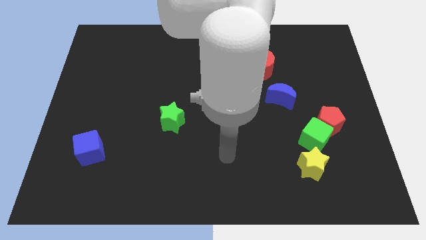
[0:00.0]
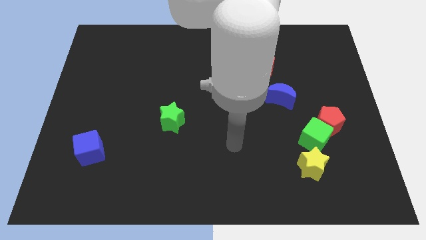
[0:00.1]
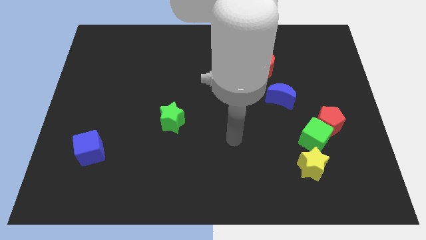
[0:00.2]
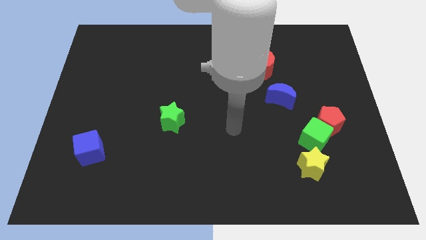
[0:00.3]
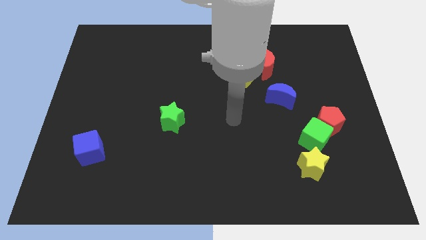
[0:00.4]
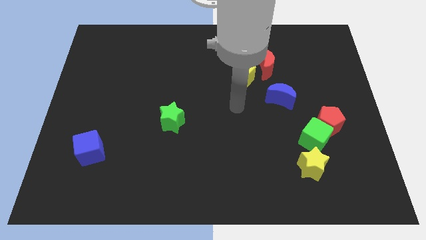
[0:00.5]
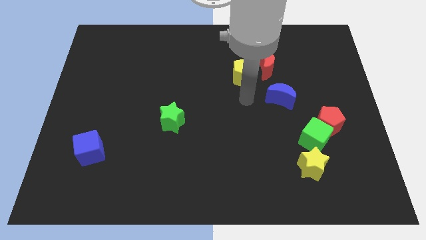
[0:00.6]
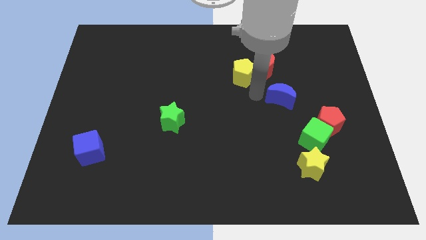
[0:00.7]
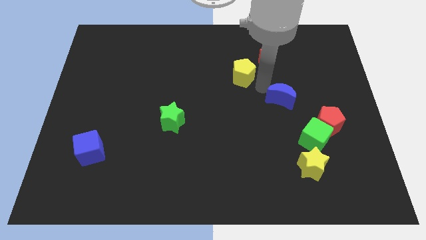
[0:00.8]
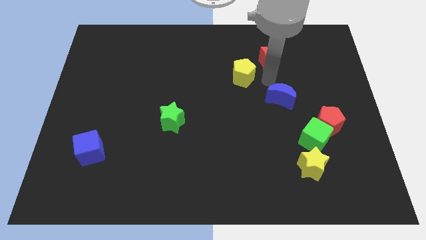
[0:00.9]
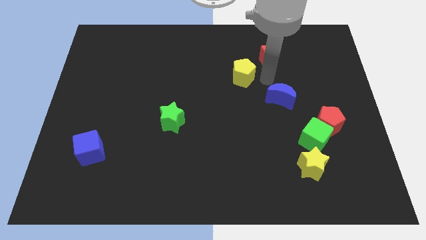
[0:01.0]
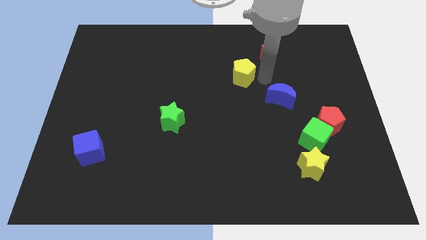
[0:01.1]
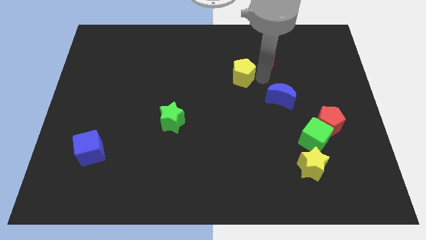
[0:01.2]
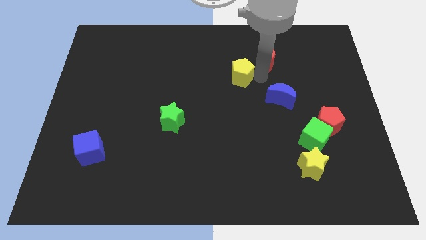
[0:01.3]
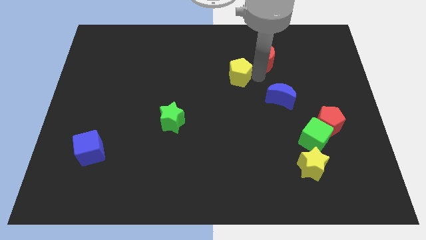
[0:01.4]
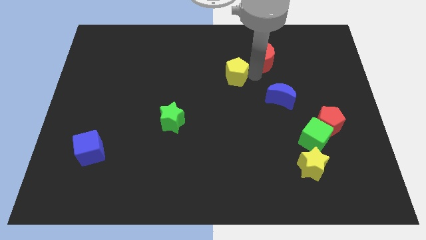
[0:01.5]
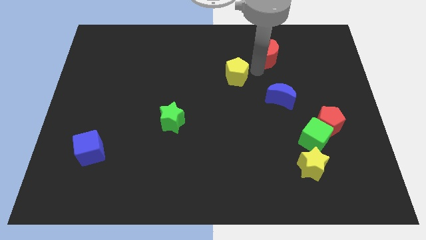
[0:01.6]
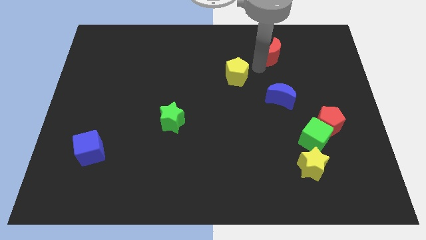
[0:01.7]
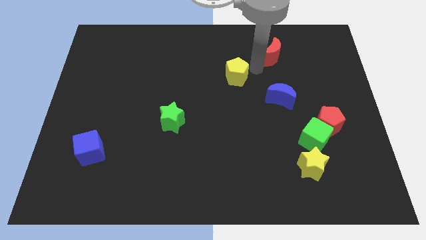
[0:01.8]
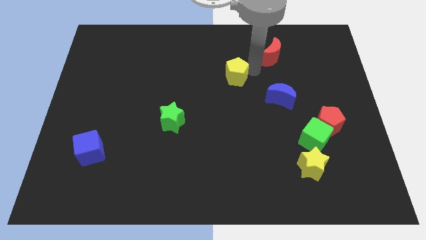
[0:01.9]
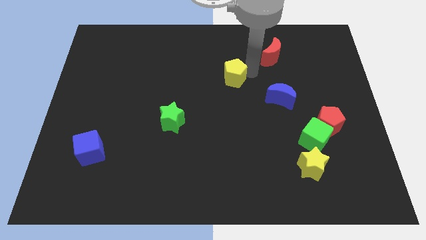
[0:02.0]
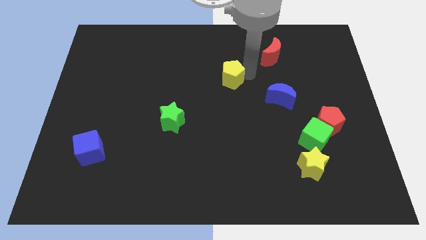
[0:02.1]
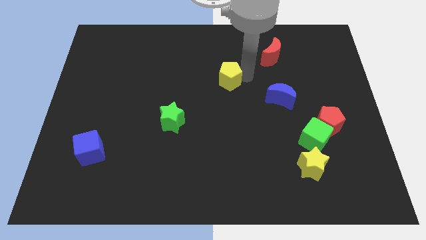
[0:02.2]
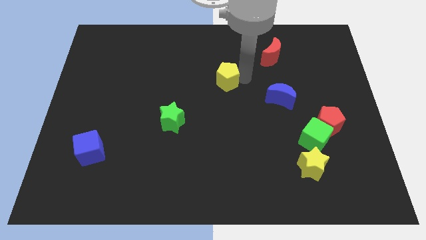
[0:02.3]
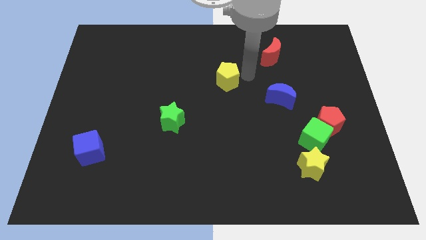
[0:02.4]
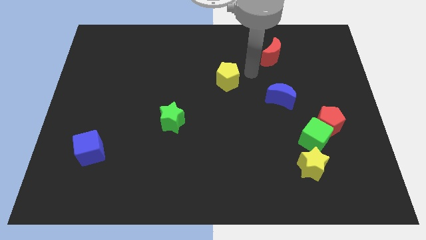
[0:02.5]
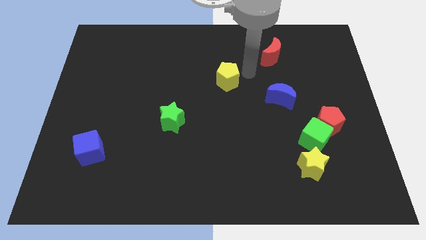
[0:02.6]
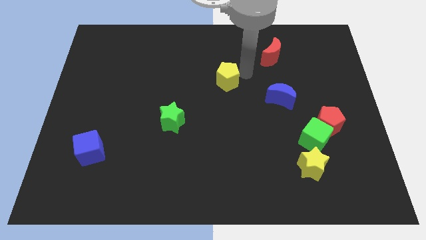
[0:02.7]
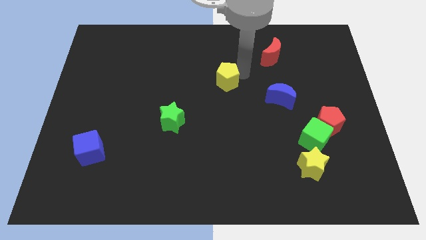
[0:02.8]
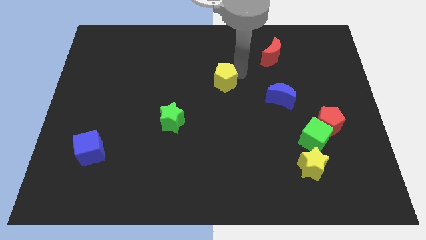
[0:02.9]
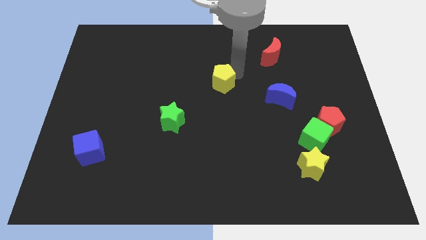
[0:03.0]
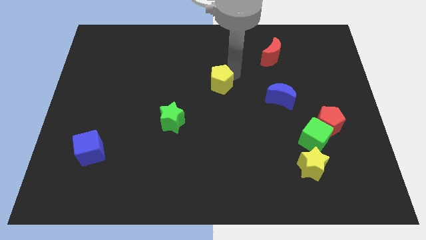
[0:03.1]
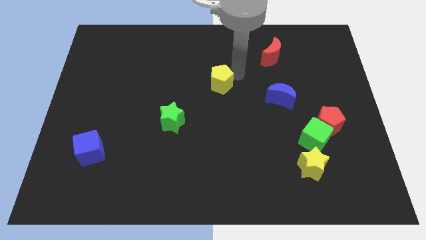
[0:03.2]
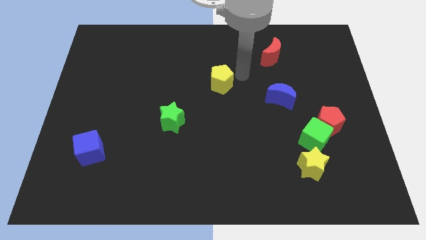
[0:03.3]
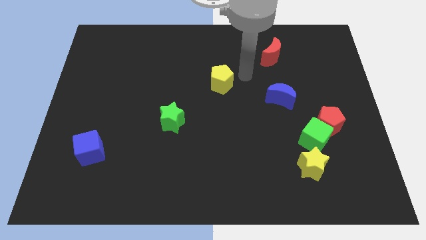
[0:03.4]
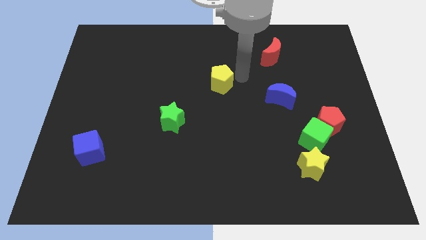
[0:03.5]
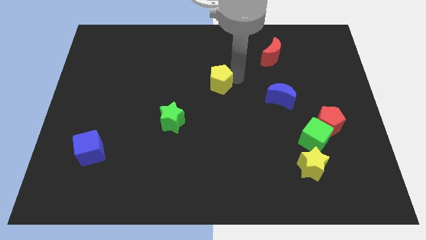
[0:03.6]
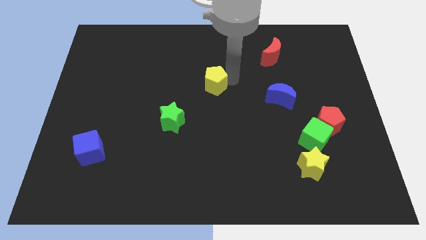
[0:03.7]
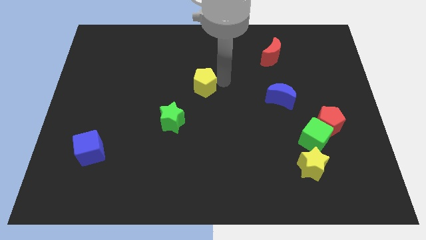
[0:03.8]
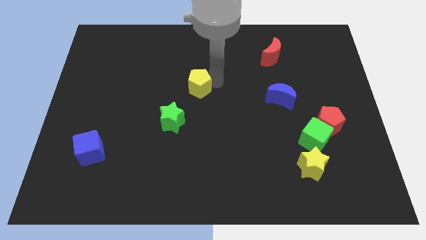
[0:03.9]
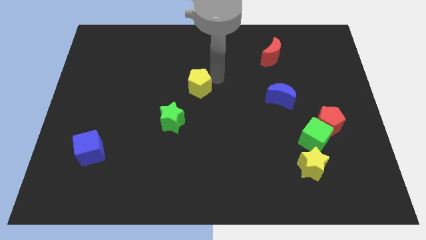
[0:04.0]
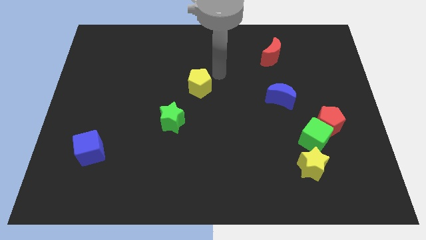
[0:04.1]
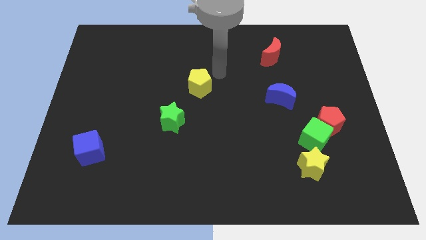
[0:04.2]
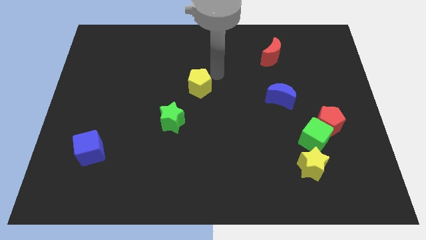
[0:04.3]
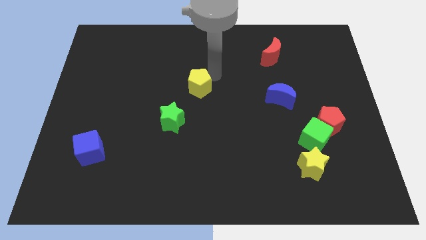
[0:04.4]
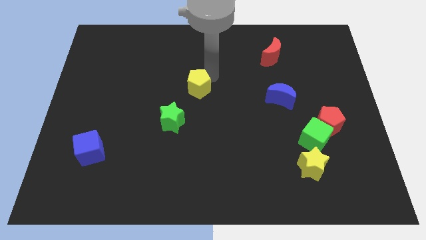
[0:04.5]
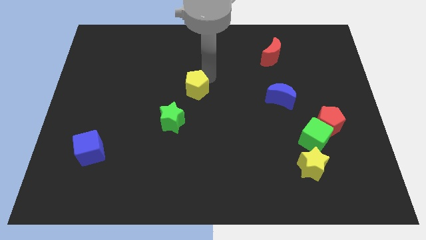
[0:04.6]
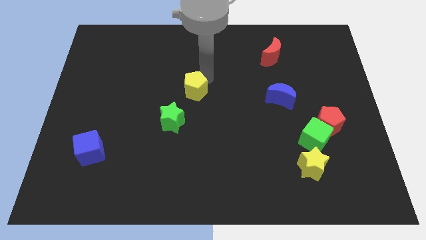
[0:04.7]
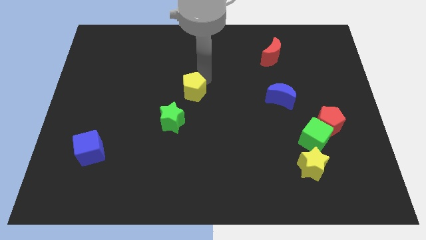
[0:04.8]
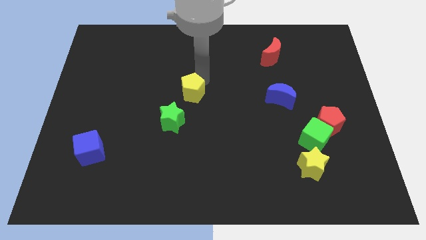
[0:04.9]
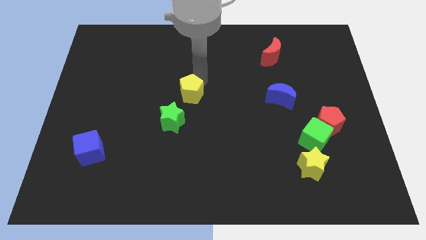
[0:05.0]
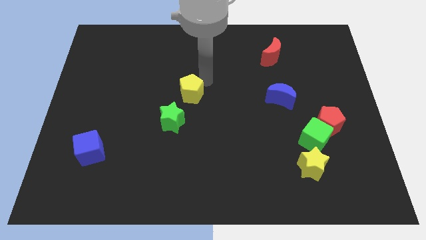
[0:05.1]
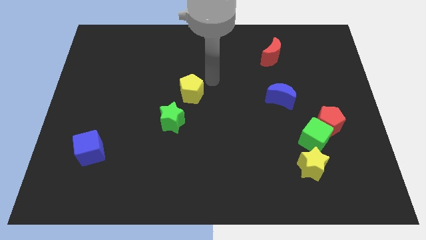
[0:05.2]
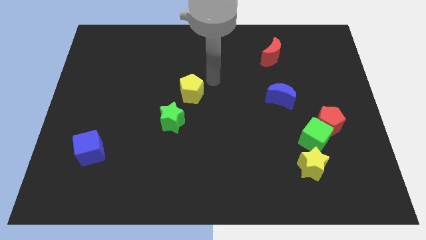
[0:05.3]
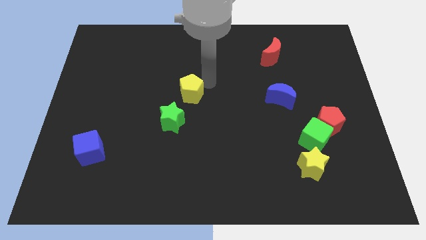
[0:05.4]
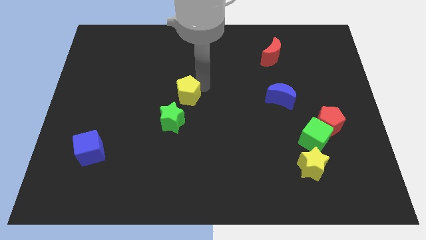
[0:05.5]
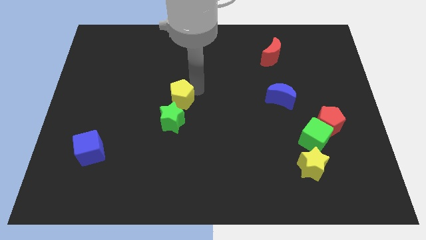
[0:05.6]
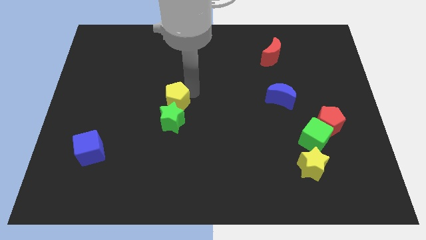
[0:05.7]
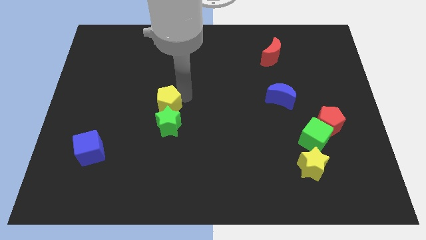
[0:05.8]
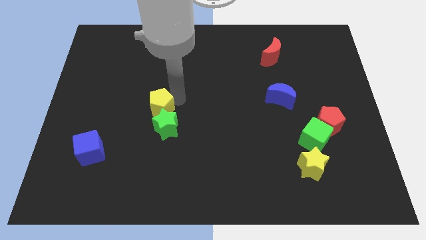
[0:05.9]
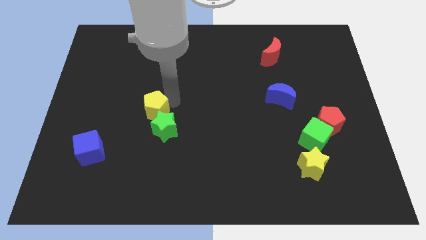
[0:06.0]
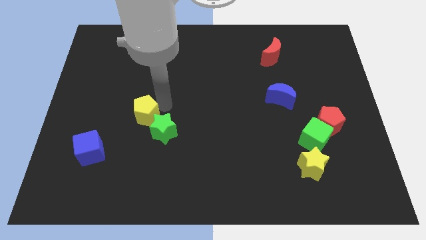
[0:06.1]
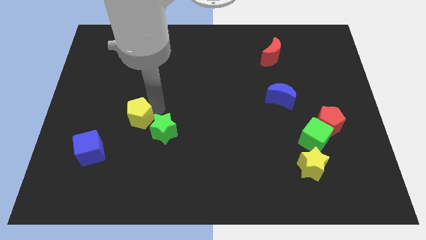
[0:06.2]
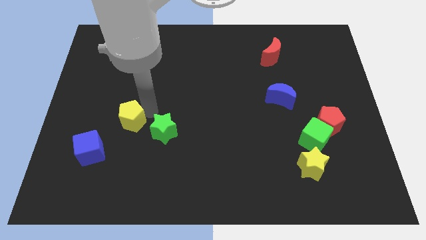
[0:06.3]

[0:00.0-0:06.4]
move the yellow pentagon to the top right of the blue cube

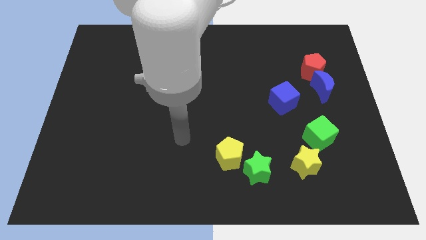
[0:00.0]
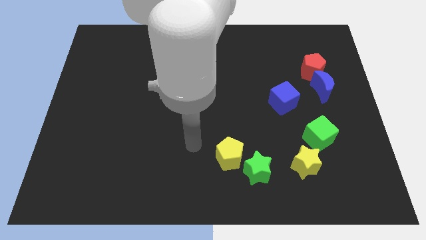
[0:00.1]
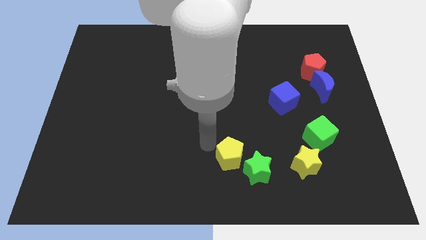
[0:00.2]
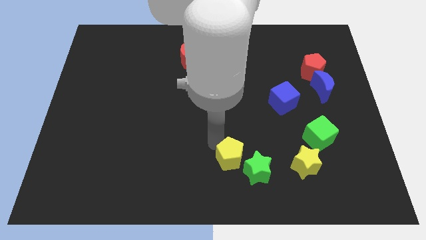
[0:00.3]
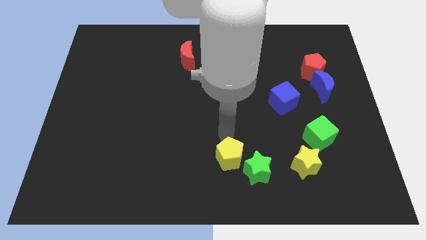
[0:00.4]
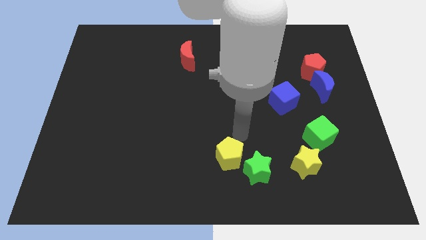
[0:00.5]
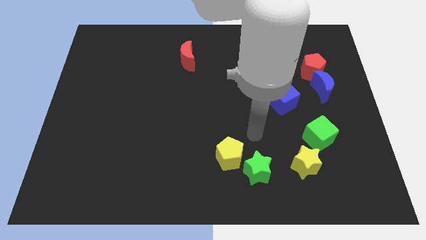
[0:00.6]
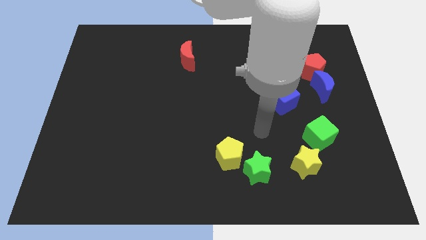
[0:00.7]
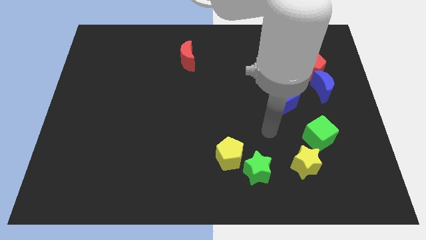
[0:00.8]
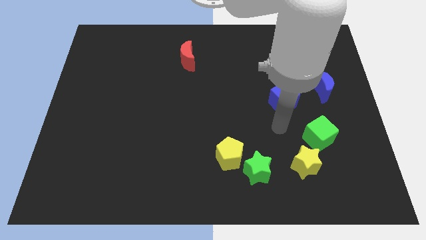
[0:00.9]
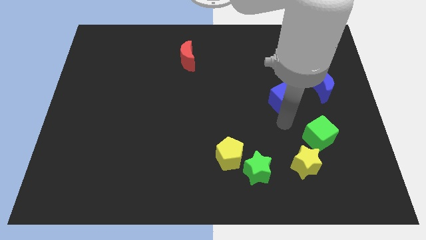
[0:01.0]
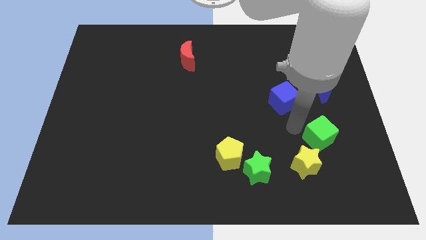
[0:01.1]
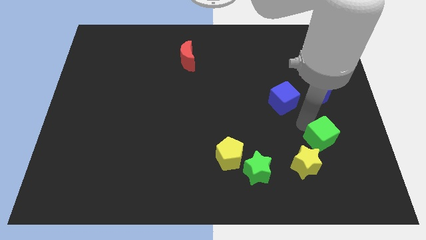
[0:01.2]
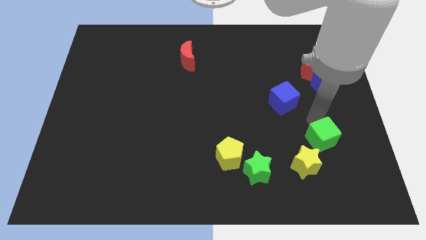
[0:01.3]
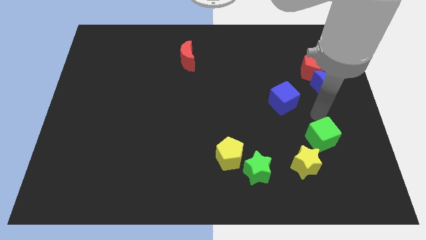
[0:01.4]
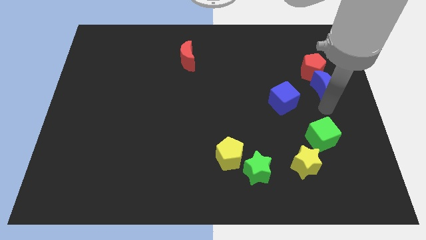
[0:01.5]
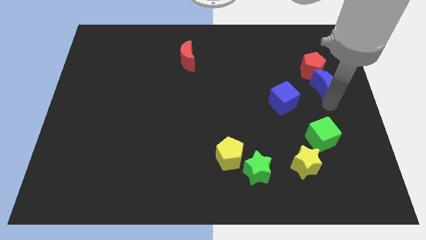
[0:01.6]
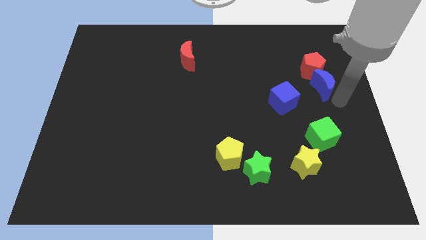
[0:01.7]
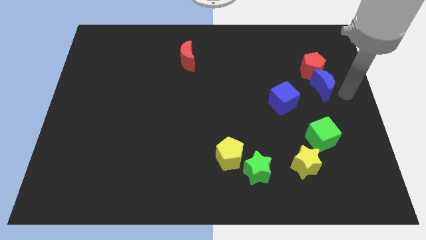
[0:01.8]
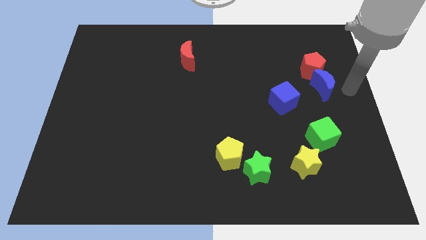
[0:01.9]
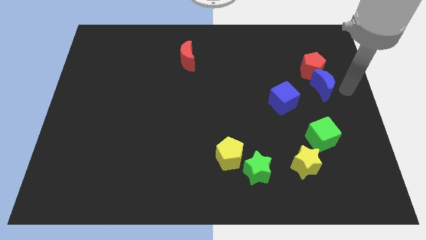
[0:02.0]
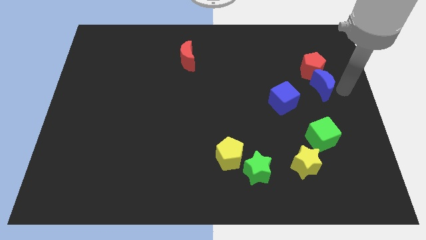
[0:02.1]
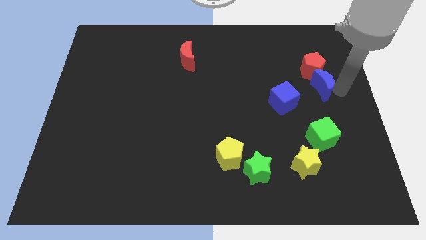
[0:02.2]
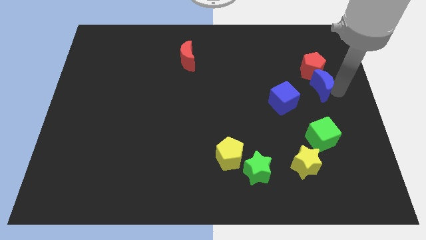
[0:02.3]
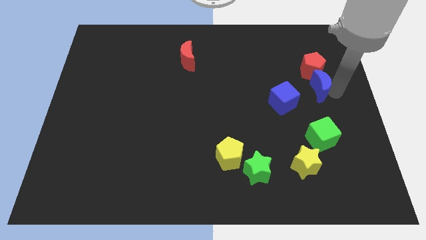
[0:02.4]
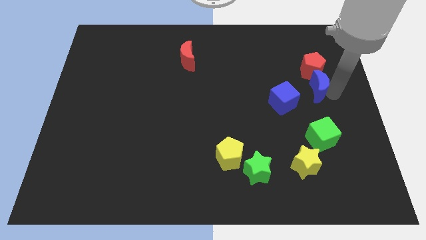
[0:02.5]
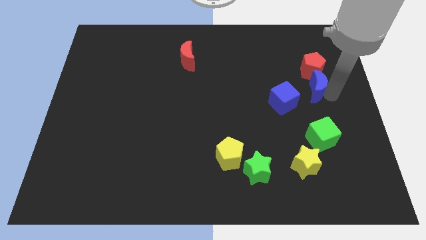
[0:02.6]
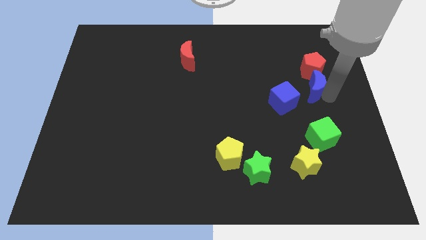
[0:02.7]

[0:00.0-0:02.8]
push the blue moon to the bottom left of the red pentagon
